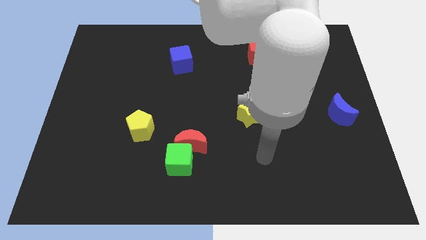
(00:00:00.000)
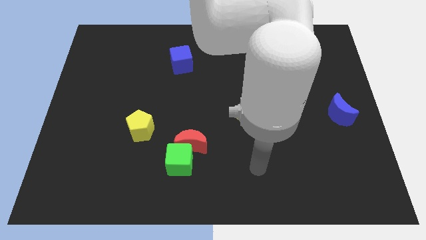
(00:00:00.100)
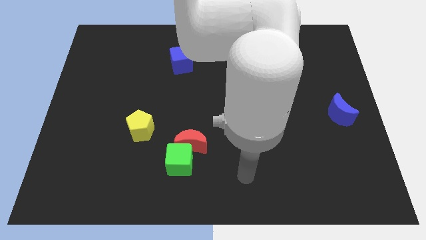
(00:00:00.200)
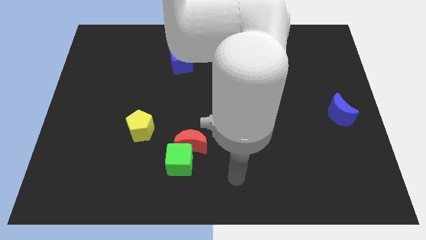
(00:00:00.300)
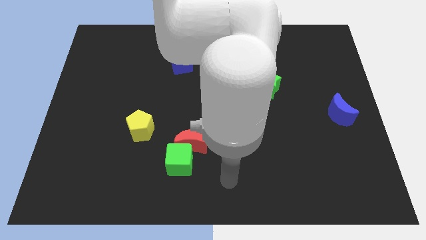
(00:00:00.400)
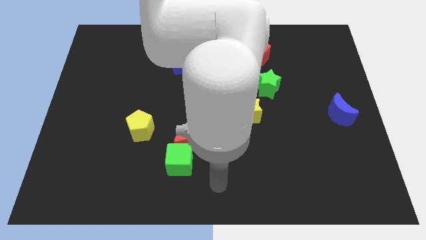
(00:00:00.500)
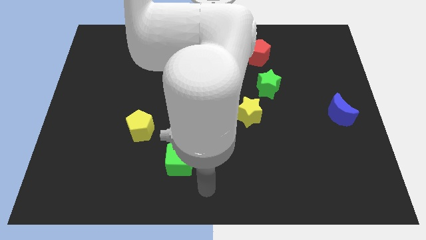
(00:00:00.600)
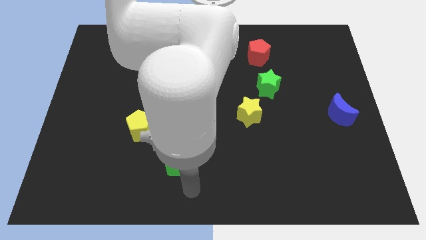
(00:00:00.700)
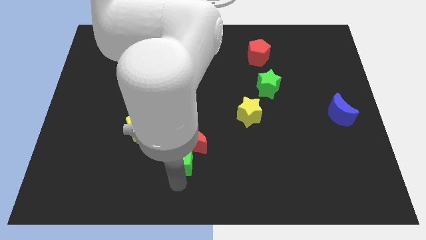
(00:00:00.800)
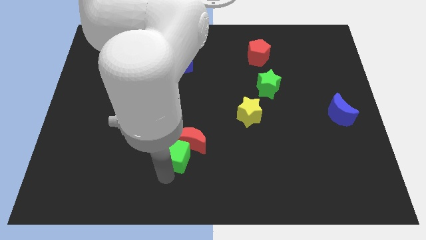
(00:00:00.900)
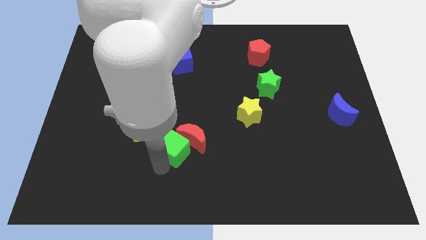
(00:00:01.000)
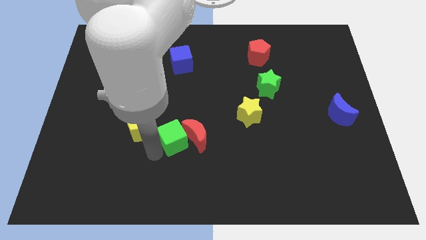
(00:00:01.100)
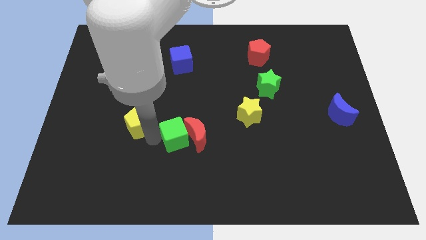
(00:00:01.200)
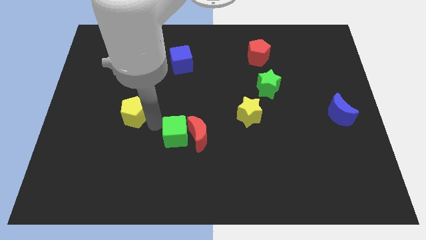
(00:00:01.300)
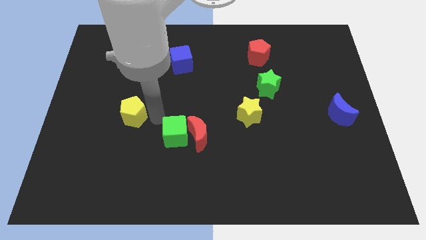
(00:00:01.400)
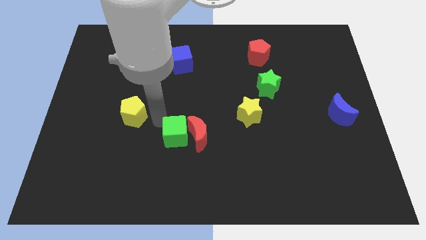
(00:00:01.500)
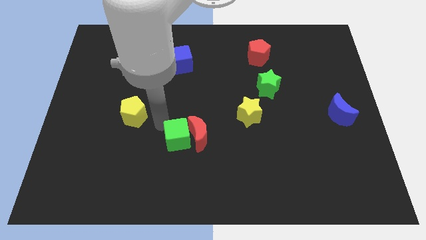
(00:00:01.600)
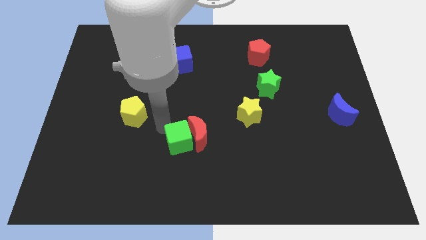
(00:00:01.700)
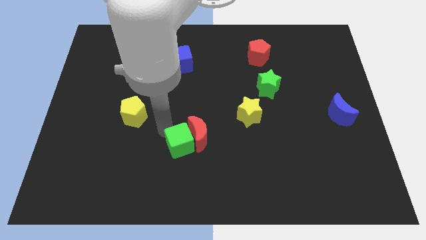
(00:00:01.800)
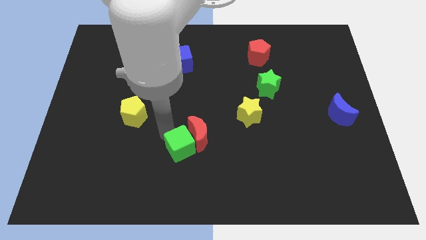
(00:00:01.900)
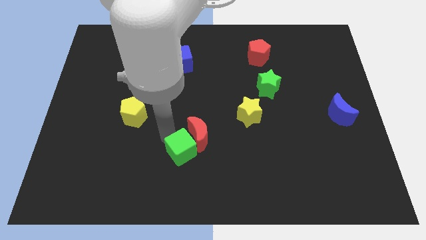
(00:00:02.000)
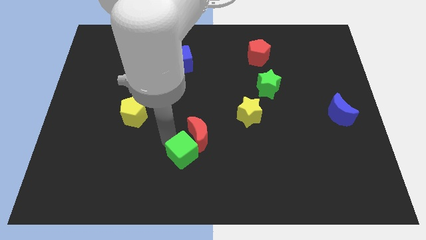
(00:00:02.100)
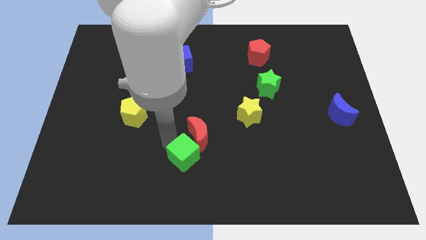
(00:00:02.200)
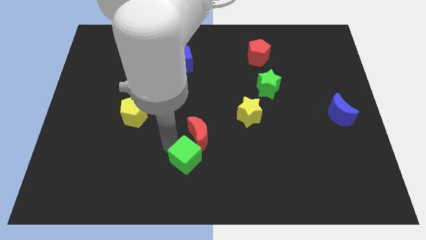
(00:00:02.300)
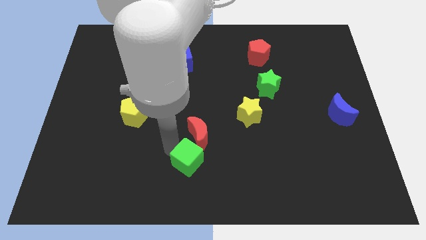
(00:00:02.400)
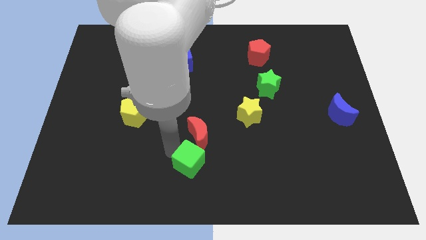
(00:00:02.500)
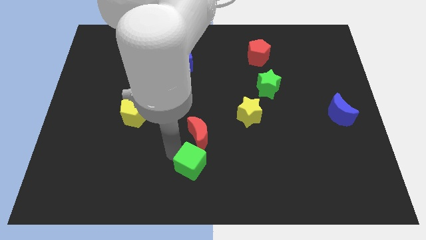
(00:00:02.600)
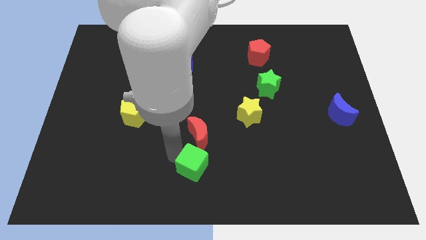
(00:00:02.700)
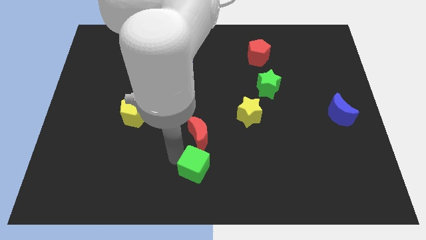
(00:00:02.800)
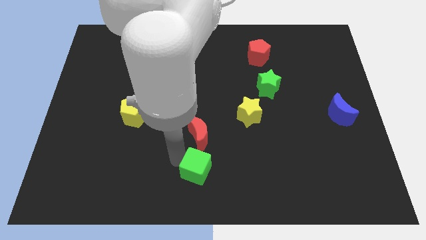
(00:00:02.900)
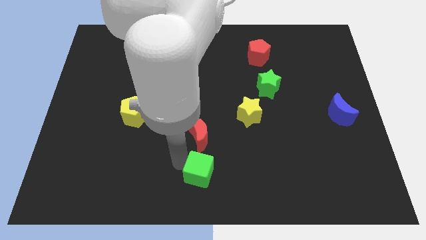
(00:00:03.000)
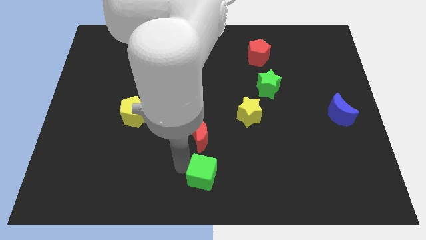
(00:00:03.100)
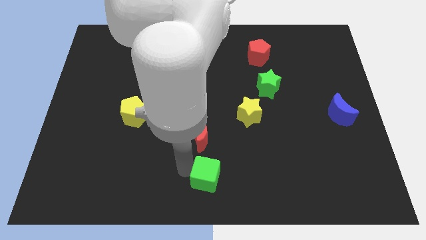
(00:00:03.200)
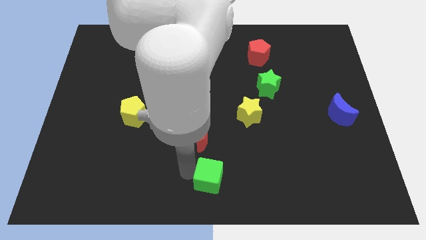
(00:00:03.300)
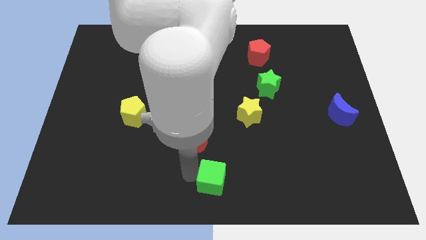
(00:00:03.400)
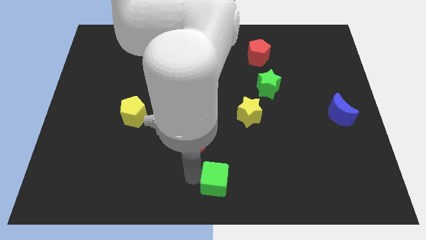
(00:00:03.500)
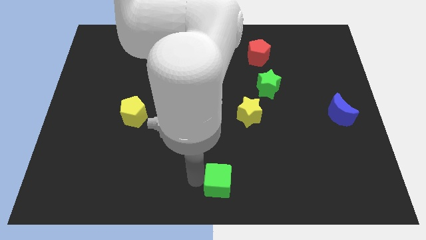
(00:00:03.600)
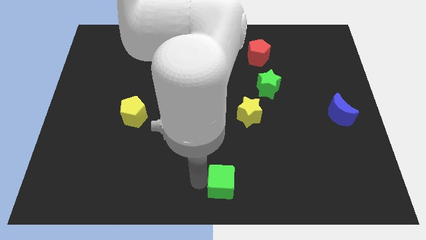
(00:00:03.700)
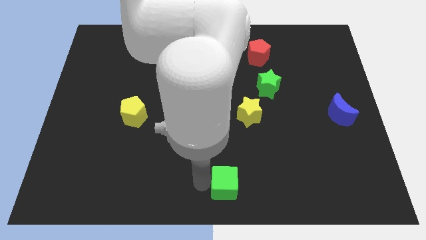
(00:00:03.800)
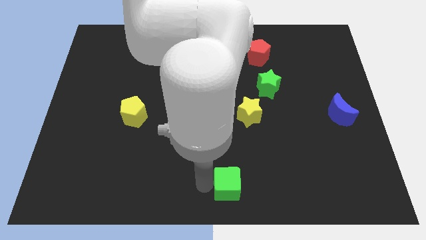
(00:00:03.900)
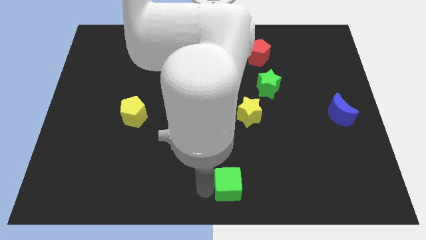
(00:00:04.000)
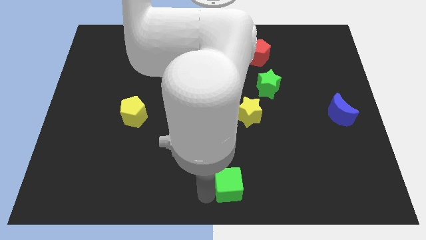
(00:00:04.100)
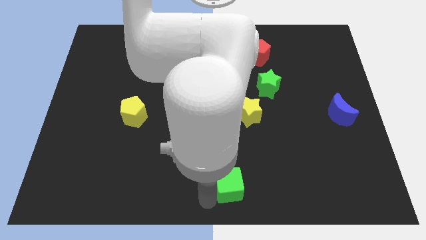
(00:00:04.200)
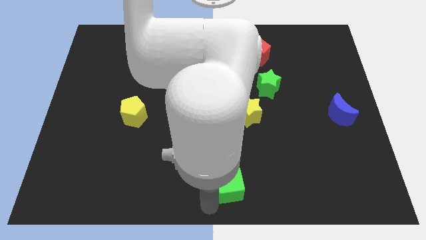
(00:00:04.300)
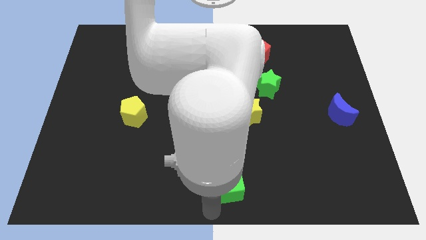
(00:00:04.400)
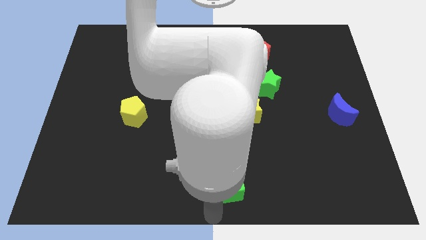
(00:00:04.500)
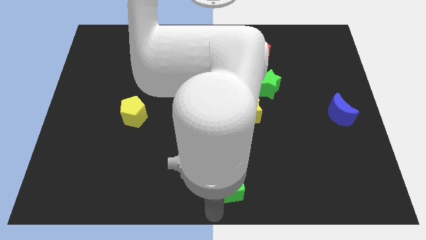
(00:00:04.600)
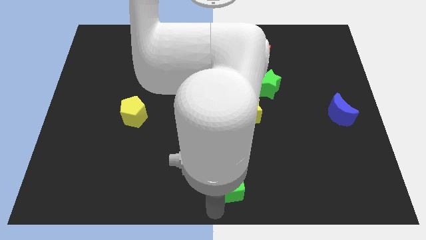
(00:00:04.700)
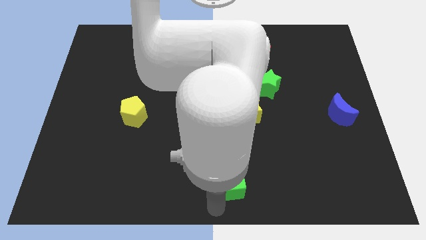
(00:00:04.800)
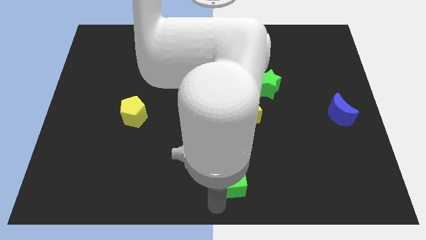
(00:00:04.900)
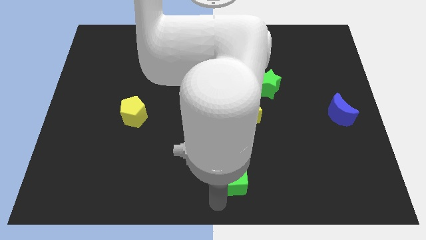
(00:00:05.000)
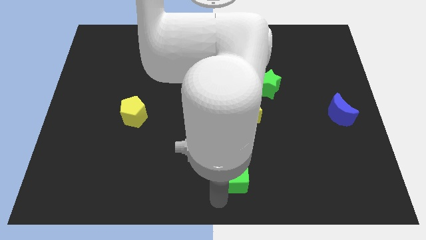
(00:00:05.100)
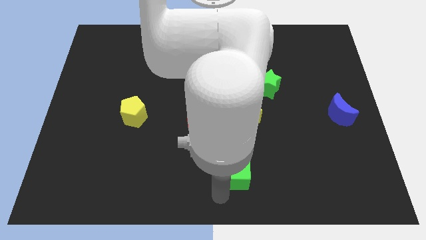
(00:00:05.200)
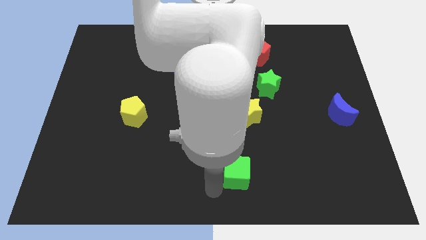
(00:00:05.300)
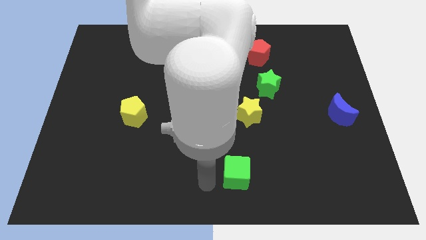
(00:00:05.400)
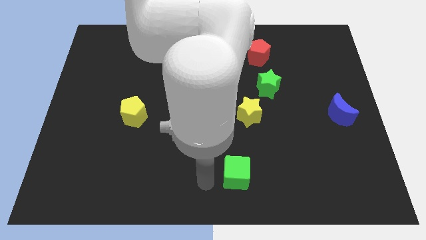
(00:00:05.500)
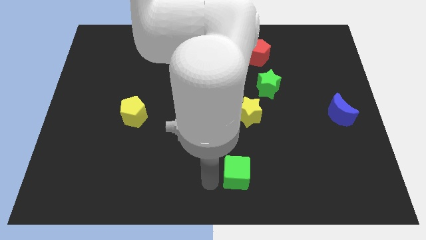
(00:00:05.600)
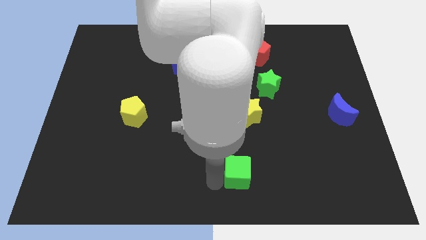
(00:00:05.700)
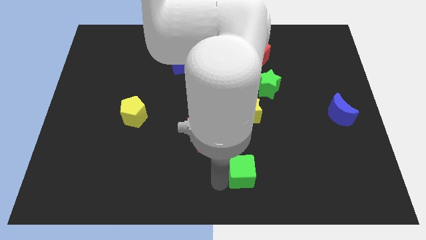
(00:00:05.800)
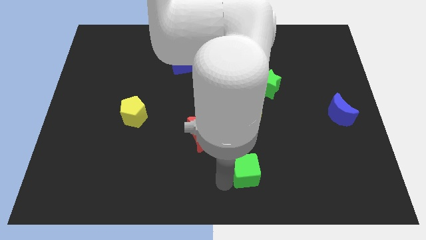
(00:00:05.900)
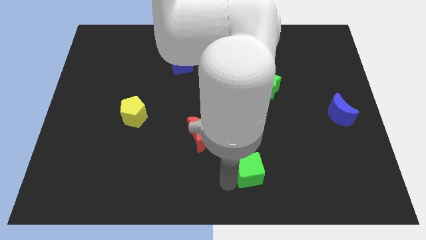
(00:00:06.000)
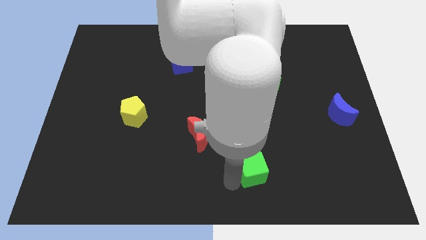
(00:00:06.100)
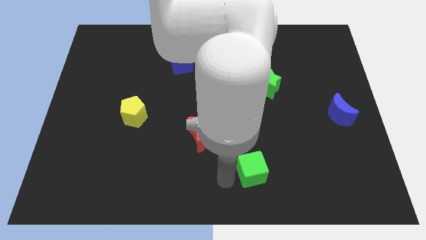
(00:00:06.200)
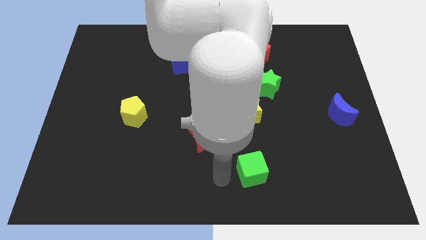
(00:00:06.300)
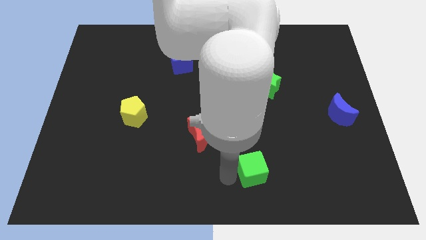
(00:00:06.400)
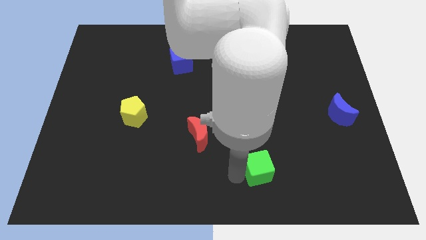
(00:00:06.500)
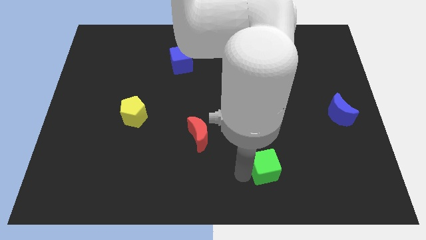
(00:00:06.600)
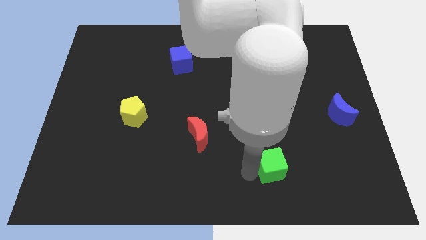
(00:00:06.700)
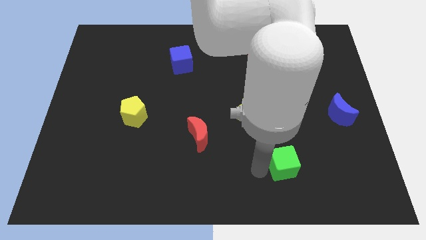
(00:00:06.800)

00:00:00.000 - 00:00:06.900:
move the green cube to the right

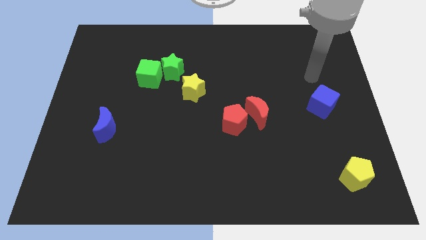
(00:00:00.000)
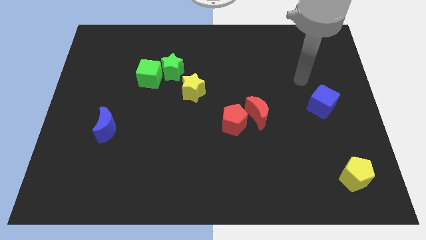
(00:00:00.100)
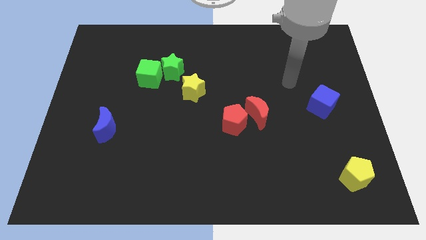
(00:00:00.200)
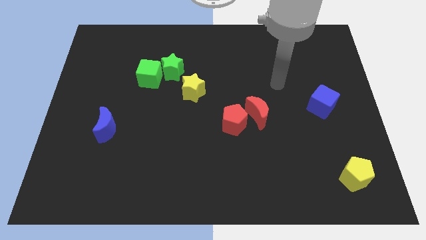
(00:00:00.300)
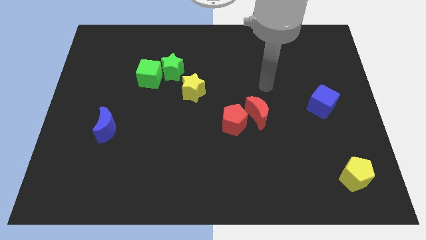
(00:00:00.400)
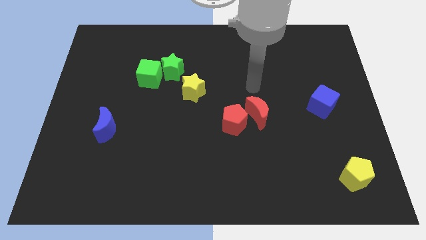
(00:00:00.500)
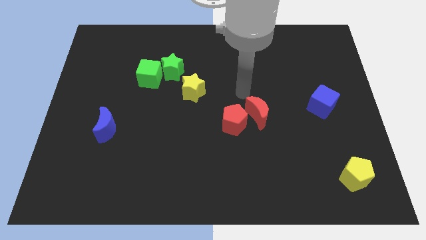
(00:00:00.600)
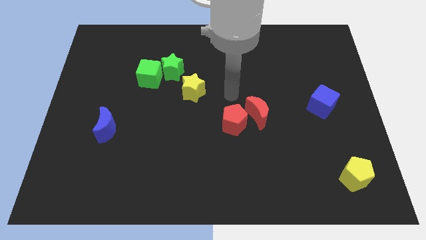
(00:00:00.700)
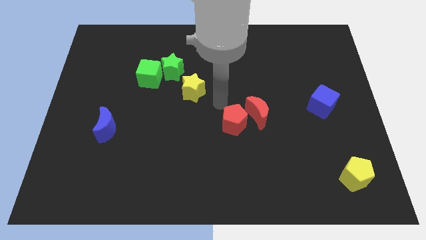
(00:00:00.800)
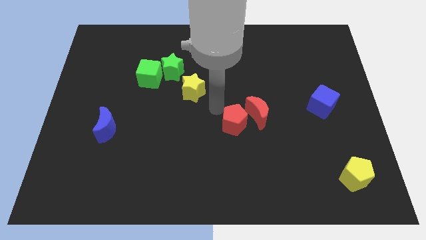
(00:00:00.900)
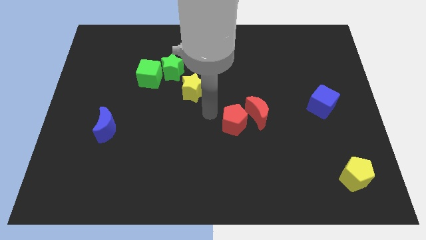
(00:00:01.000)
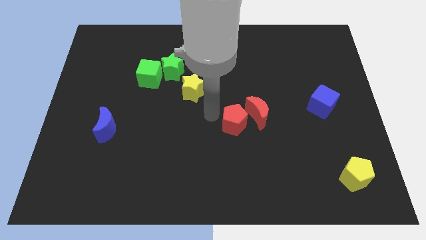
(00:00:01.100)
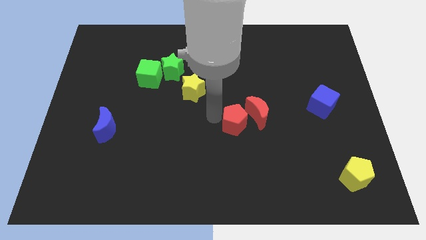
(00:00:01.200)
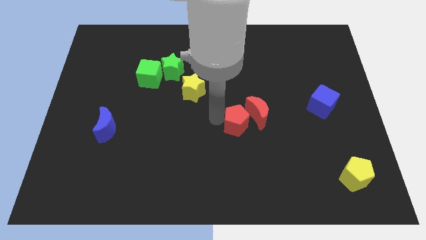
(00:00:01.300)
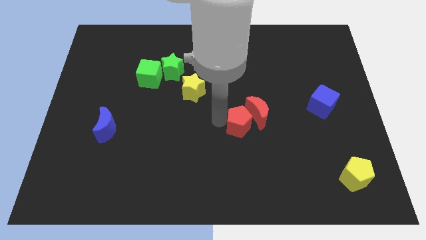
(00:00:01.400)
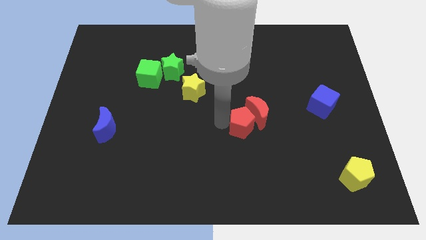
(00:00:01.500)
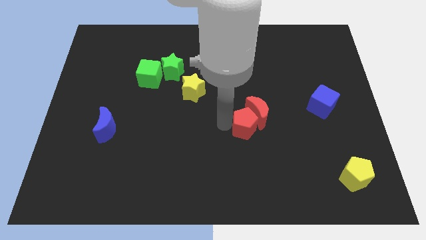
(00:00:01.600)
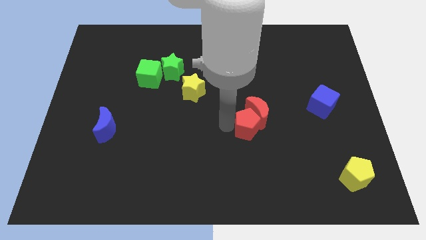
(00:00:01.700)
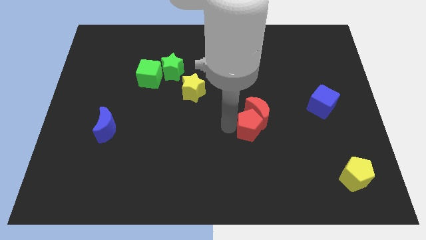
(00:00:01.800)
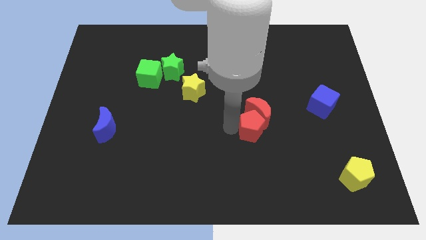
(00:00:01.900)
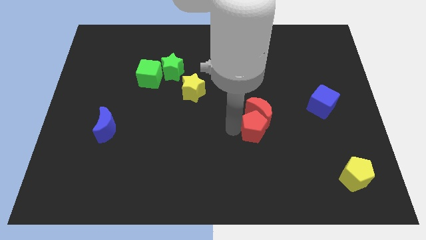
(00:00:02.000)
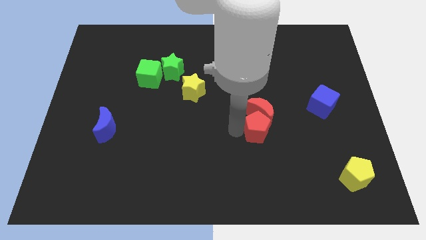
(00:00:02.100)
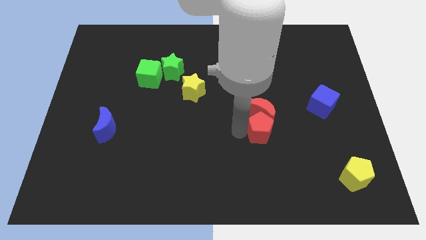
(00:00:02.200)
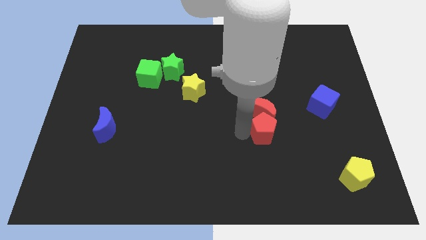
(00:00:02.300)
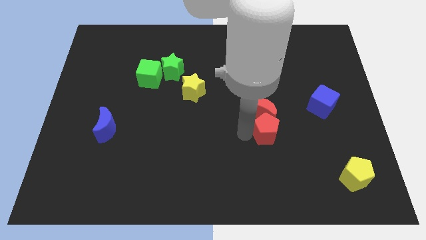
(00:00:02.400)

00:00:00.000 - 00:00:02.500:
push the red pentagon to the right slightly
